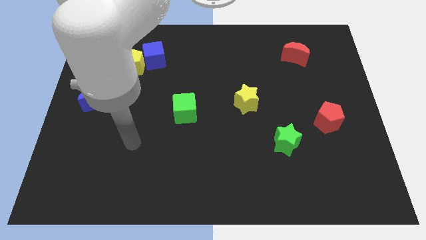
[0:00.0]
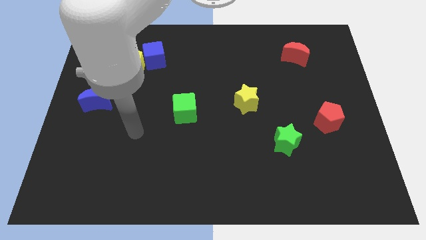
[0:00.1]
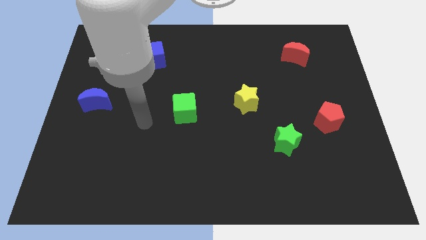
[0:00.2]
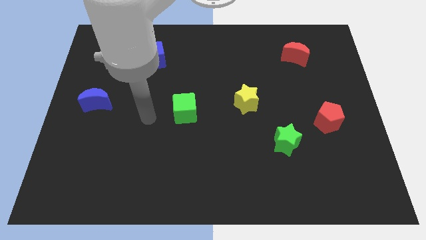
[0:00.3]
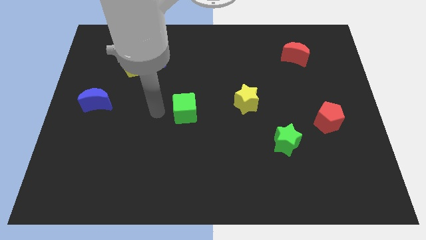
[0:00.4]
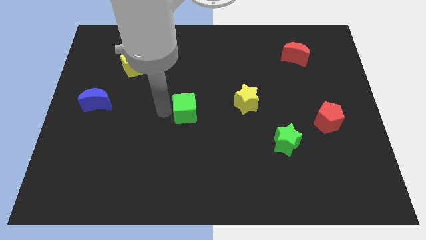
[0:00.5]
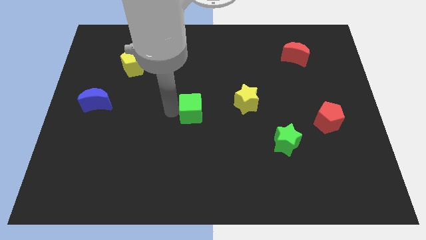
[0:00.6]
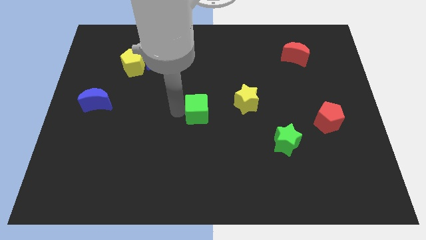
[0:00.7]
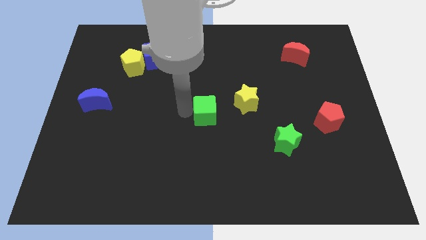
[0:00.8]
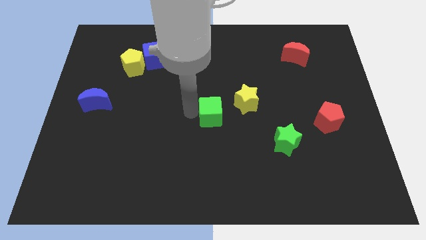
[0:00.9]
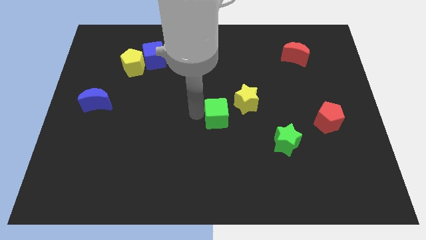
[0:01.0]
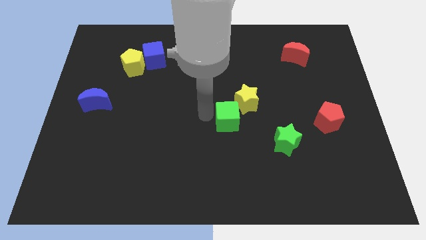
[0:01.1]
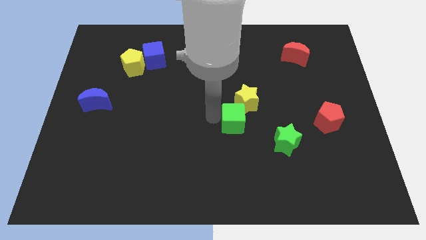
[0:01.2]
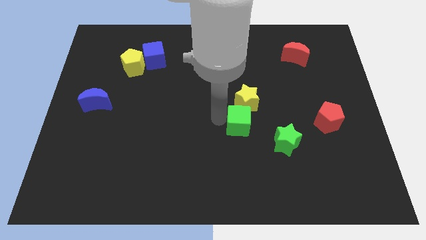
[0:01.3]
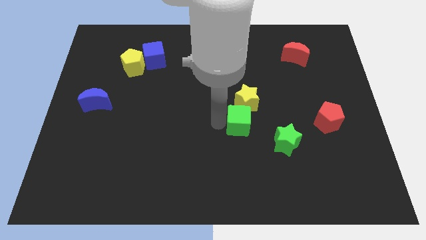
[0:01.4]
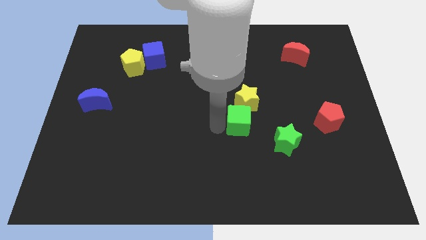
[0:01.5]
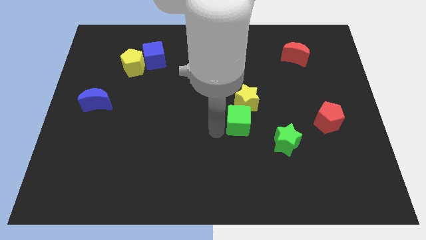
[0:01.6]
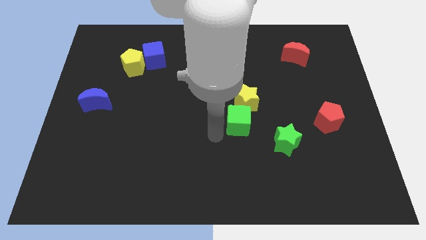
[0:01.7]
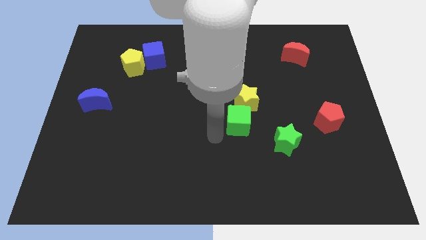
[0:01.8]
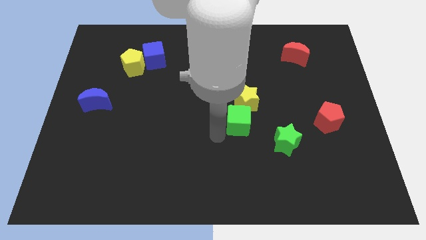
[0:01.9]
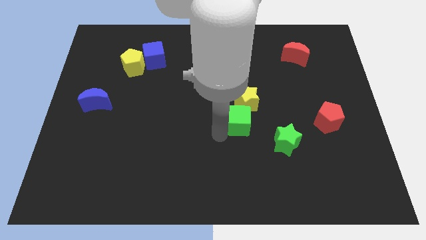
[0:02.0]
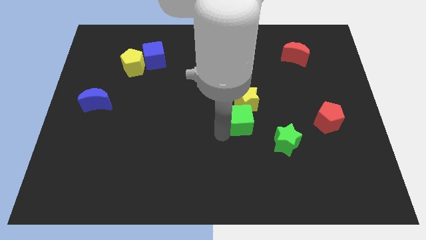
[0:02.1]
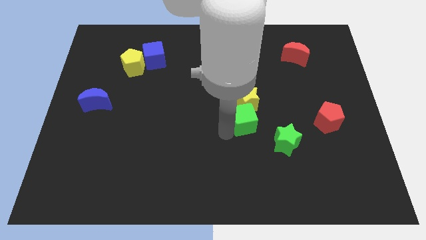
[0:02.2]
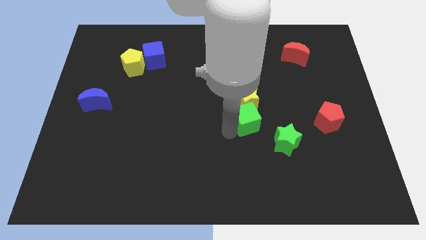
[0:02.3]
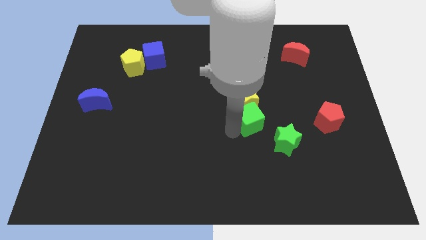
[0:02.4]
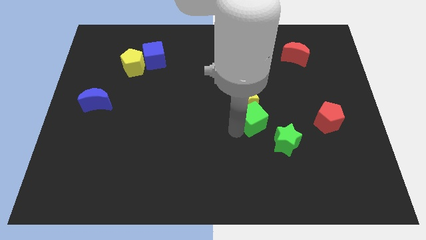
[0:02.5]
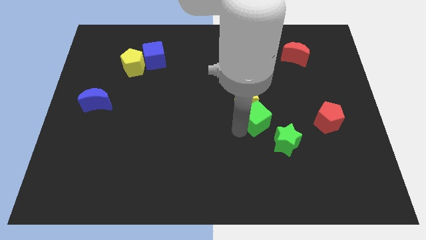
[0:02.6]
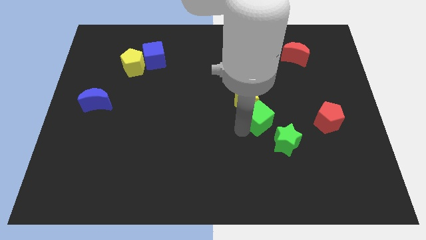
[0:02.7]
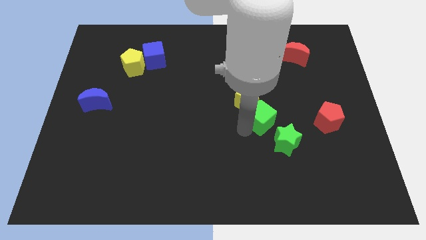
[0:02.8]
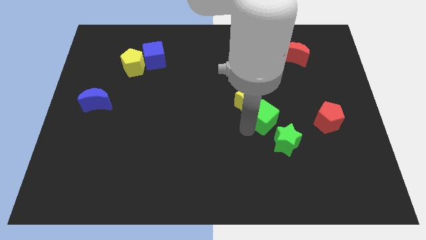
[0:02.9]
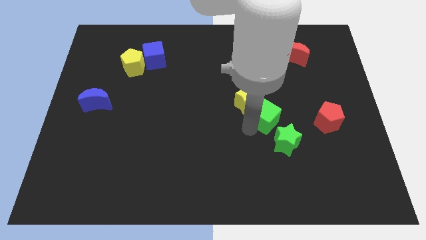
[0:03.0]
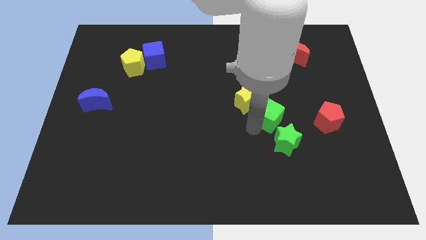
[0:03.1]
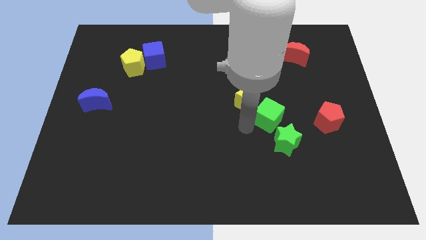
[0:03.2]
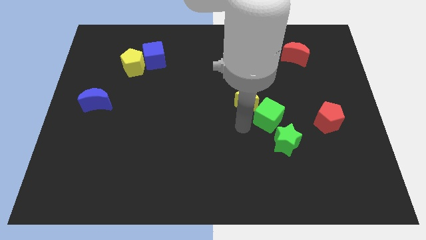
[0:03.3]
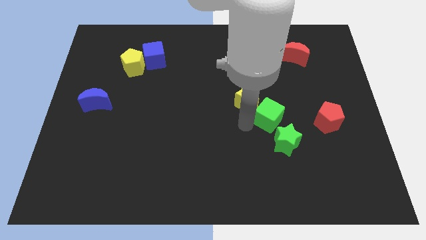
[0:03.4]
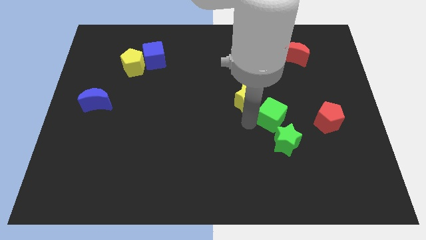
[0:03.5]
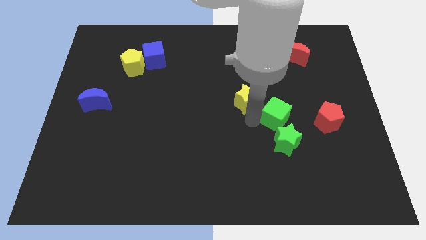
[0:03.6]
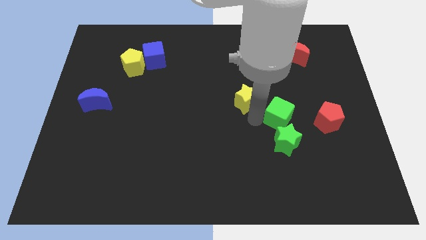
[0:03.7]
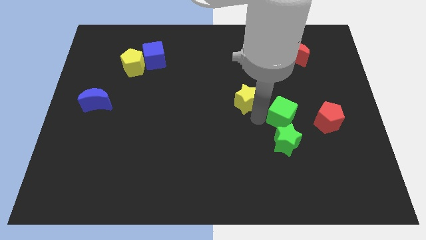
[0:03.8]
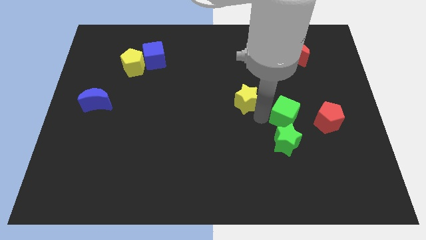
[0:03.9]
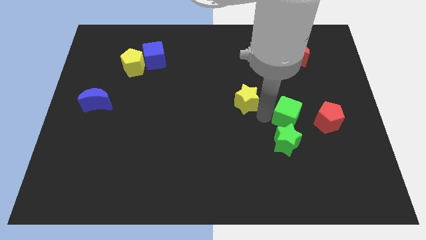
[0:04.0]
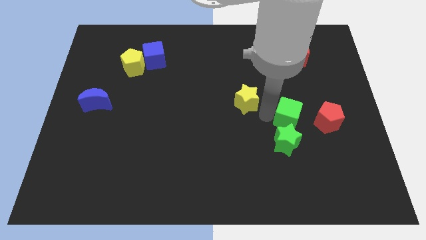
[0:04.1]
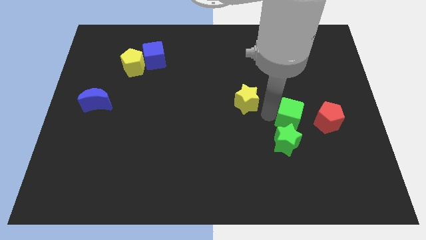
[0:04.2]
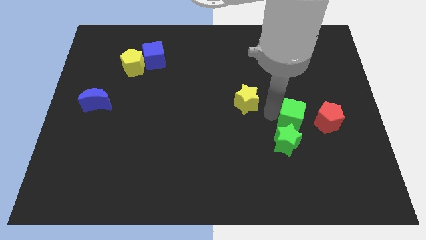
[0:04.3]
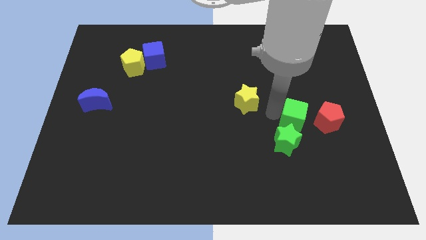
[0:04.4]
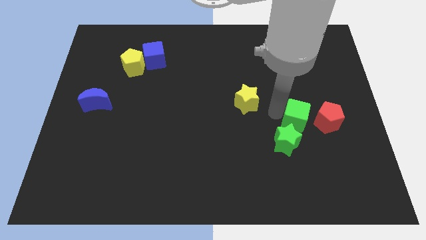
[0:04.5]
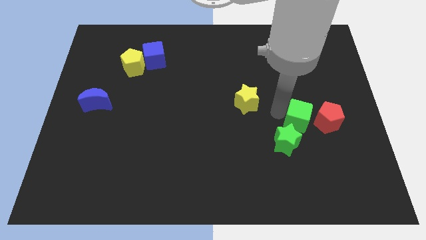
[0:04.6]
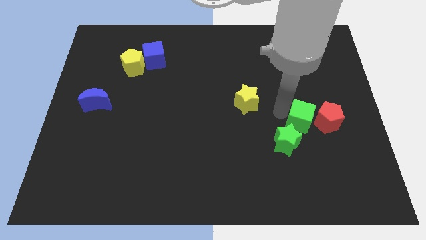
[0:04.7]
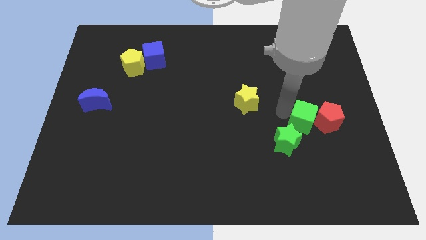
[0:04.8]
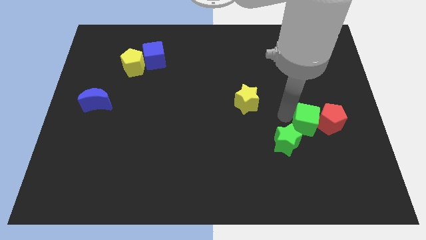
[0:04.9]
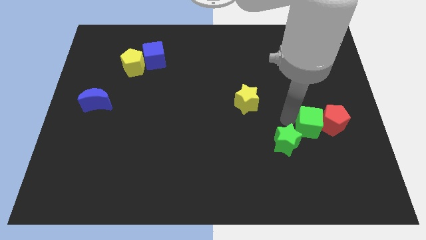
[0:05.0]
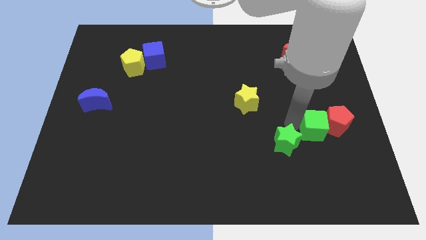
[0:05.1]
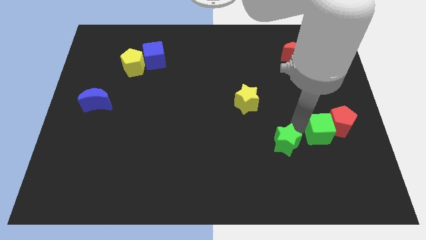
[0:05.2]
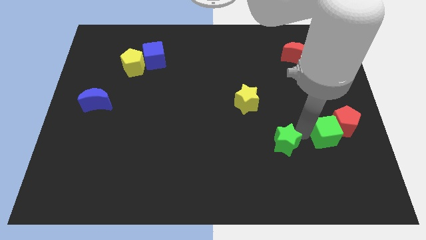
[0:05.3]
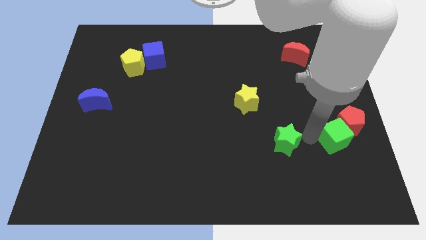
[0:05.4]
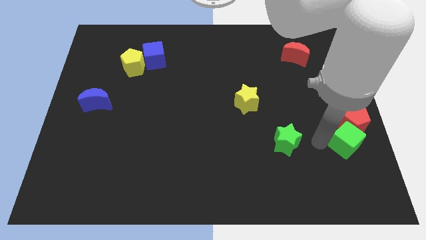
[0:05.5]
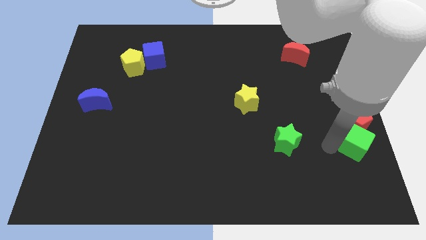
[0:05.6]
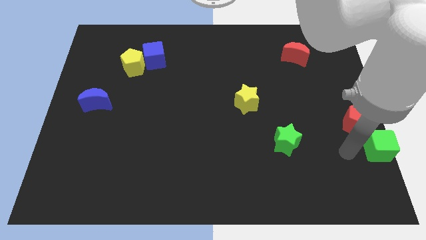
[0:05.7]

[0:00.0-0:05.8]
push the green cube to the center right

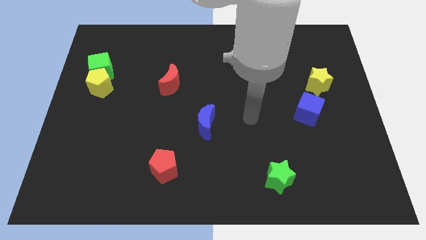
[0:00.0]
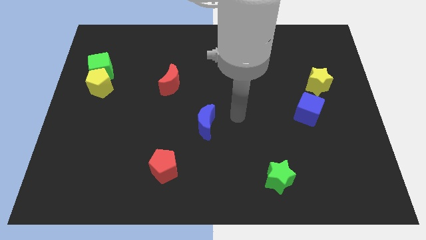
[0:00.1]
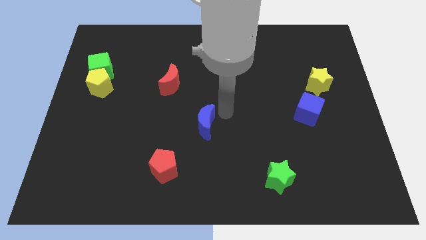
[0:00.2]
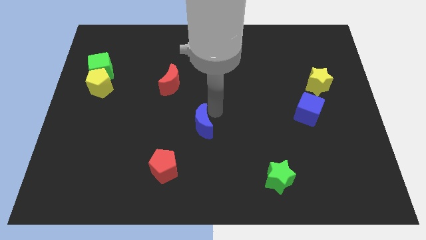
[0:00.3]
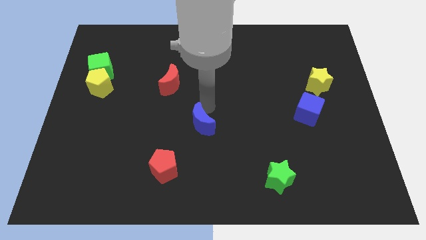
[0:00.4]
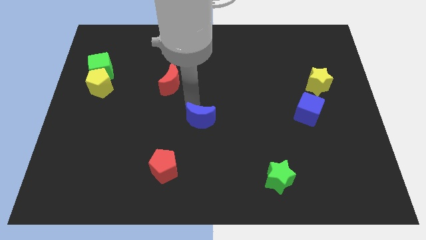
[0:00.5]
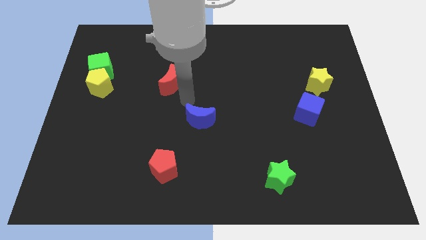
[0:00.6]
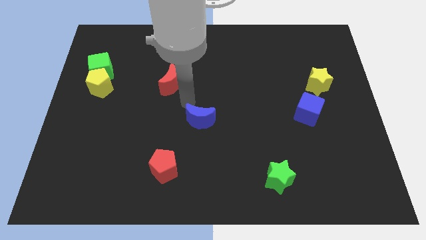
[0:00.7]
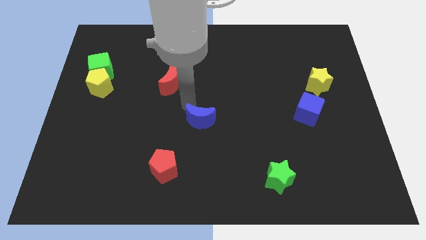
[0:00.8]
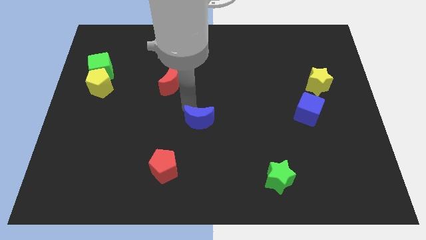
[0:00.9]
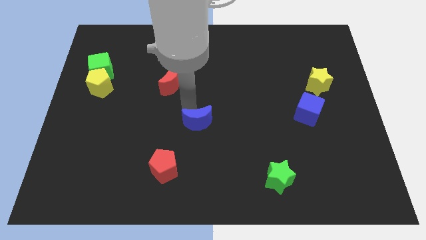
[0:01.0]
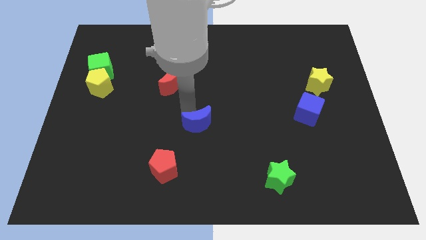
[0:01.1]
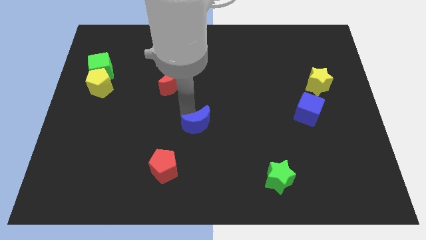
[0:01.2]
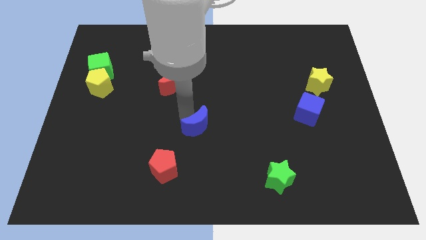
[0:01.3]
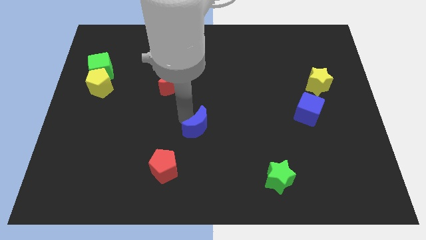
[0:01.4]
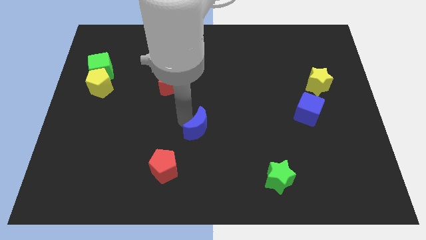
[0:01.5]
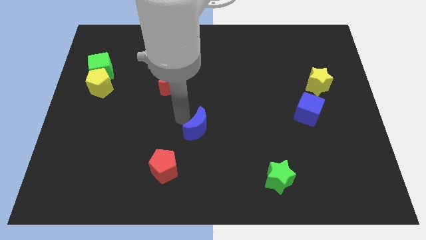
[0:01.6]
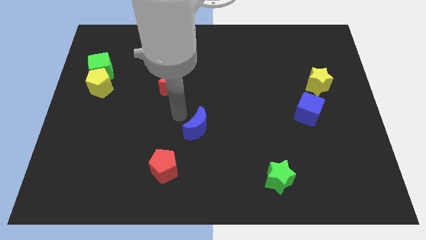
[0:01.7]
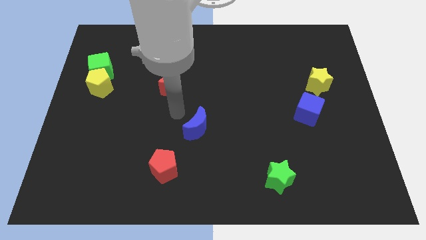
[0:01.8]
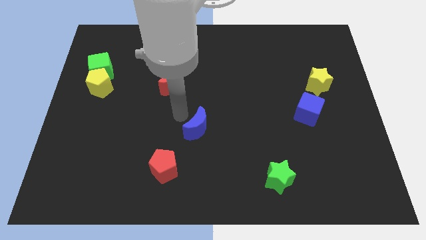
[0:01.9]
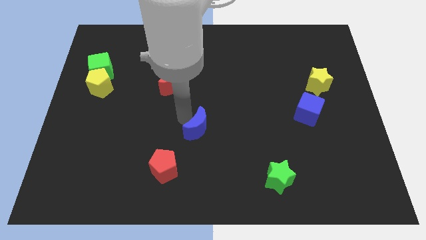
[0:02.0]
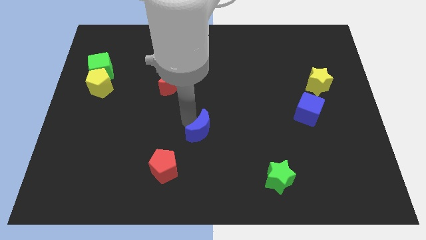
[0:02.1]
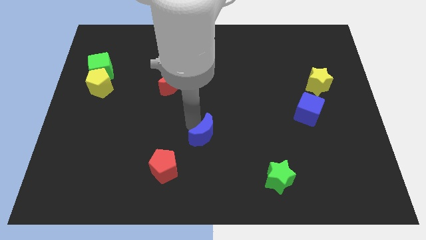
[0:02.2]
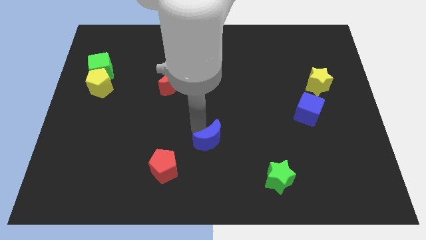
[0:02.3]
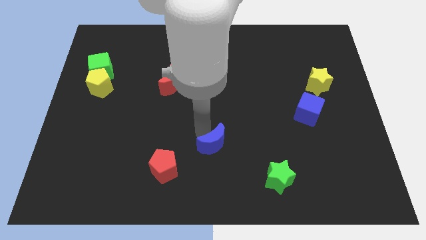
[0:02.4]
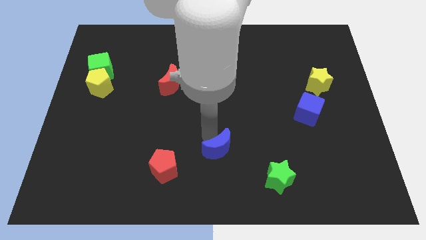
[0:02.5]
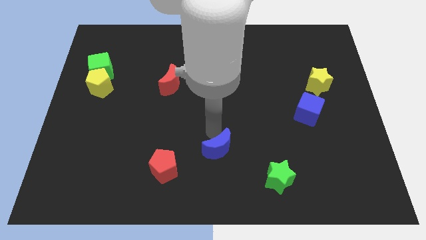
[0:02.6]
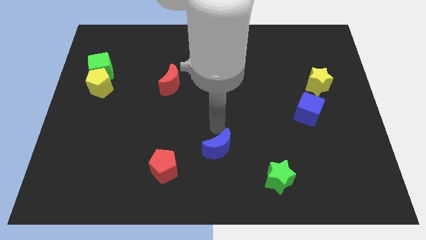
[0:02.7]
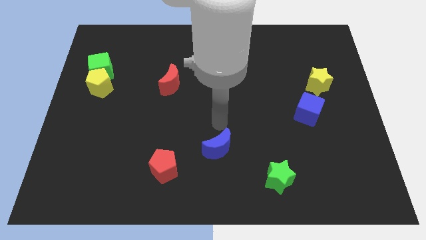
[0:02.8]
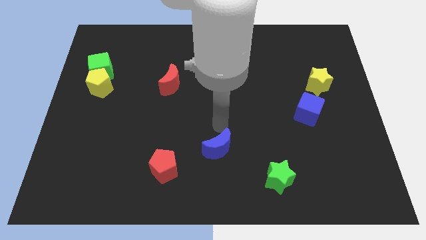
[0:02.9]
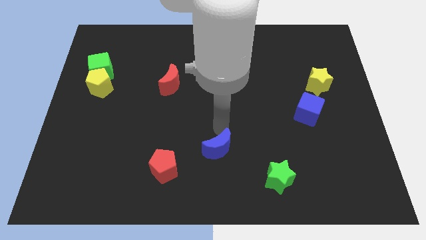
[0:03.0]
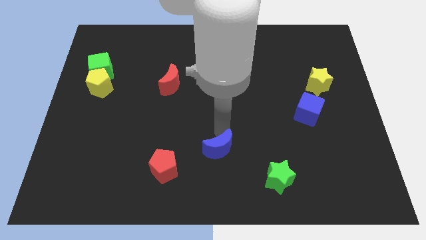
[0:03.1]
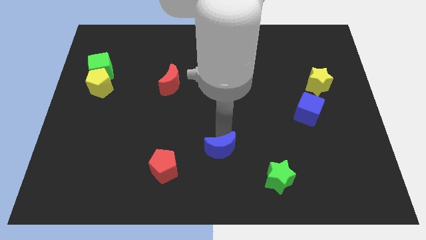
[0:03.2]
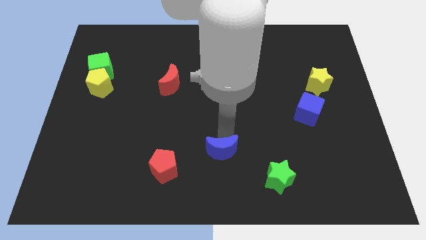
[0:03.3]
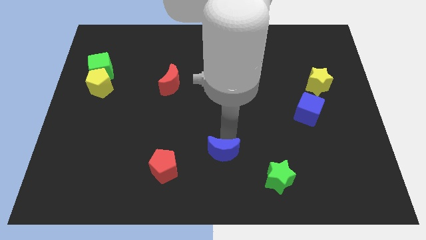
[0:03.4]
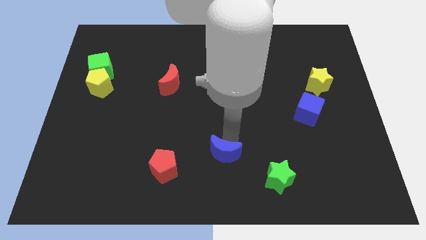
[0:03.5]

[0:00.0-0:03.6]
put the blue moon to the bottom side
